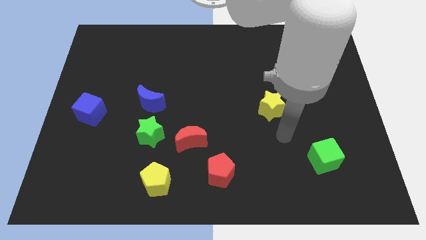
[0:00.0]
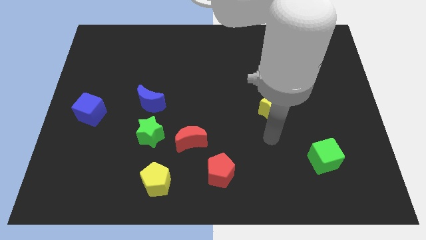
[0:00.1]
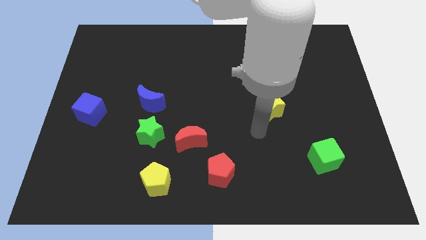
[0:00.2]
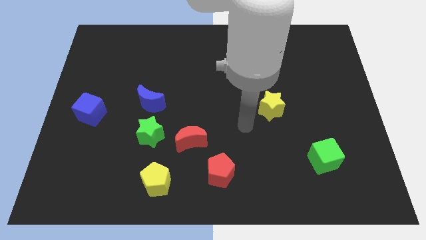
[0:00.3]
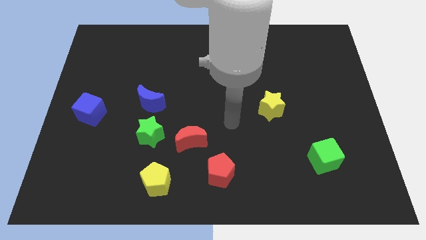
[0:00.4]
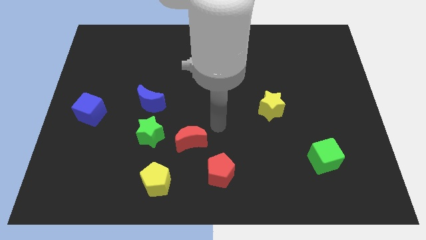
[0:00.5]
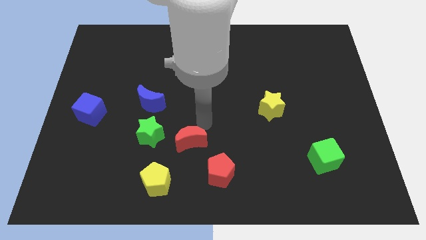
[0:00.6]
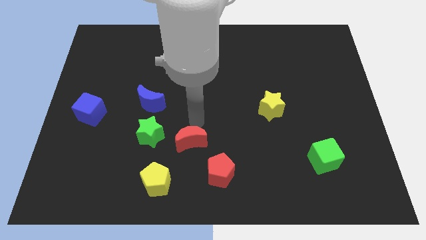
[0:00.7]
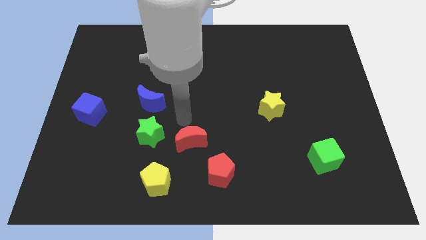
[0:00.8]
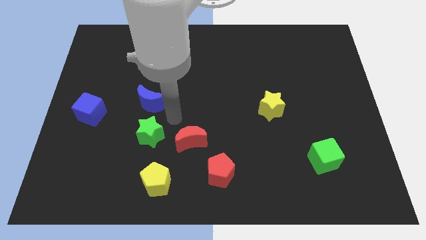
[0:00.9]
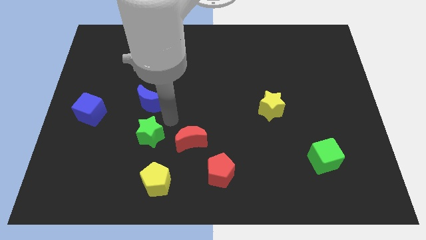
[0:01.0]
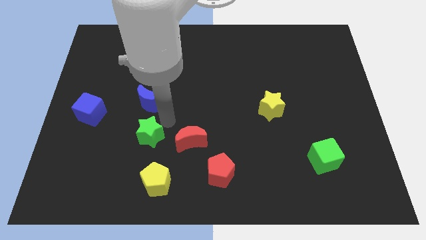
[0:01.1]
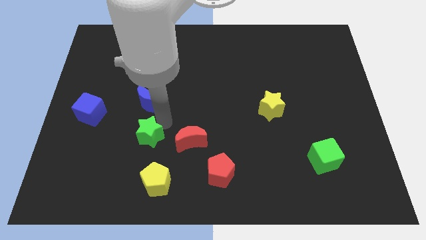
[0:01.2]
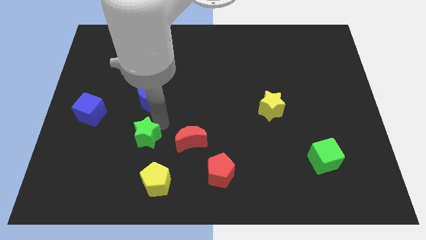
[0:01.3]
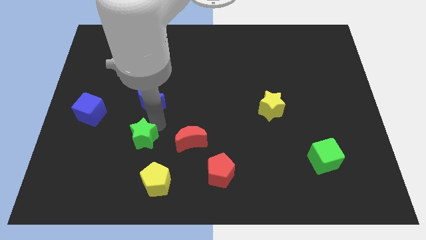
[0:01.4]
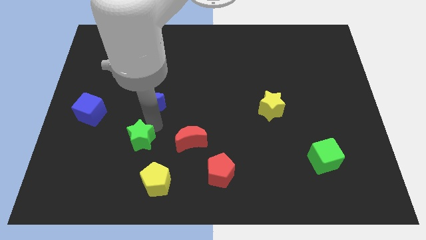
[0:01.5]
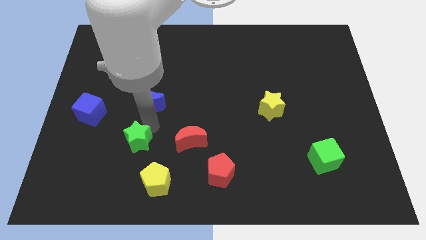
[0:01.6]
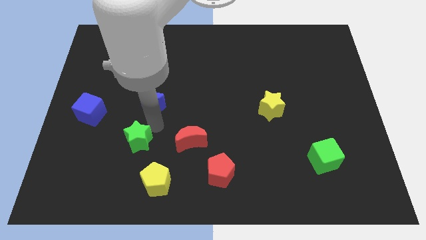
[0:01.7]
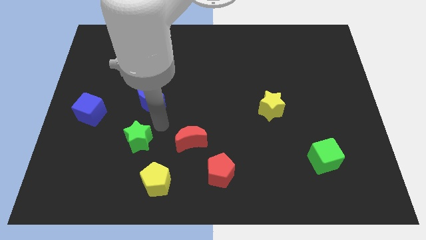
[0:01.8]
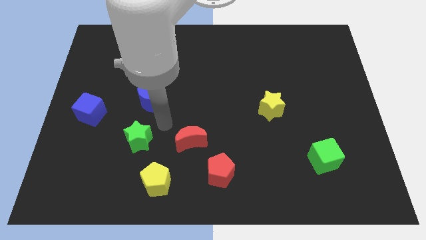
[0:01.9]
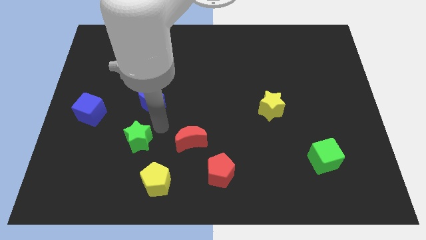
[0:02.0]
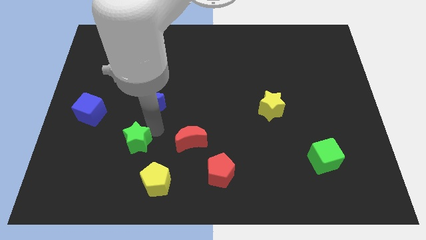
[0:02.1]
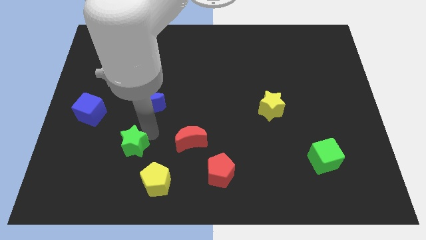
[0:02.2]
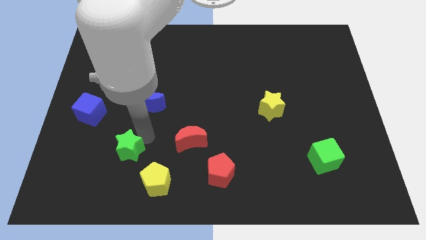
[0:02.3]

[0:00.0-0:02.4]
move the green star away from the red moon and blue moon

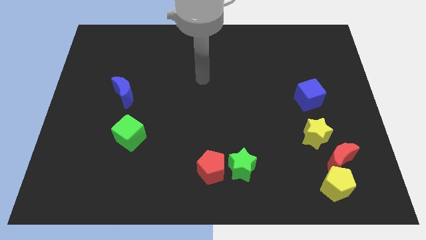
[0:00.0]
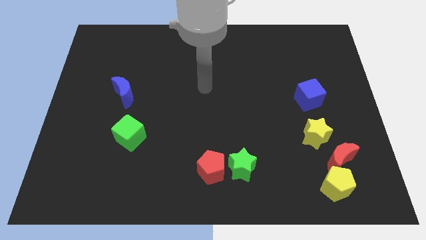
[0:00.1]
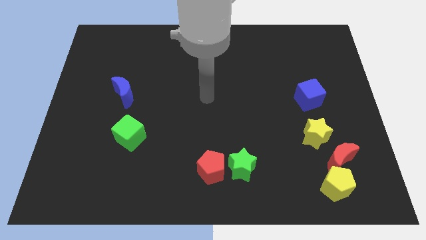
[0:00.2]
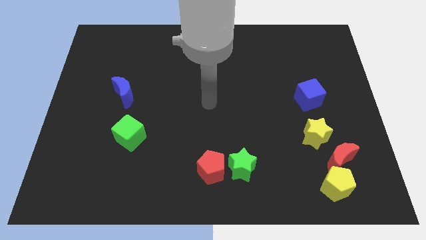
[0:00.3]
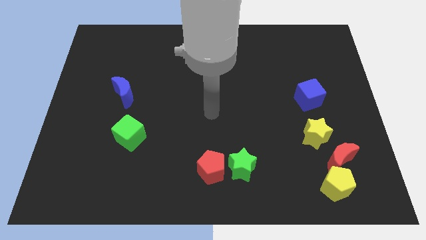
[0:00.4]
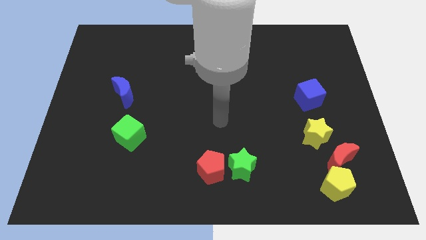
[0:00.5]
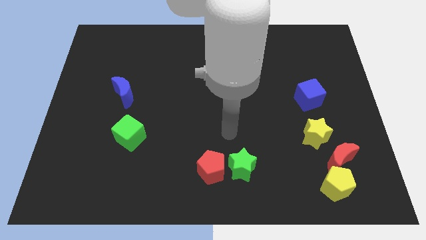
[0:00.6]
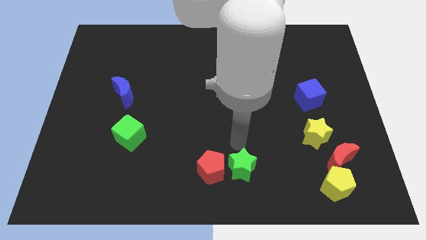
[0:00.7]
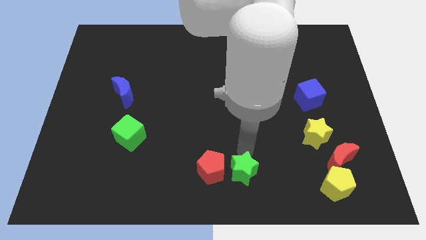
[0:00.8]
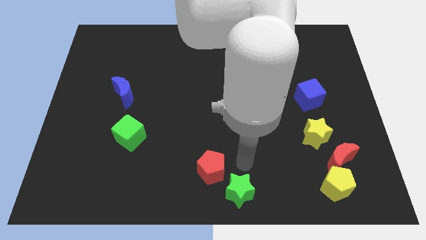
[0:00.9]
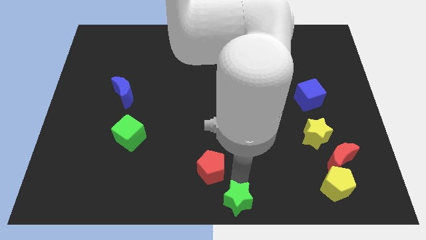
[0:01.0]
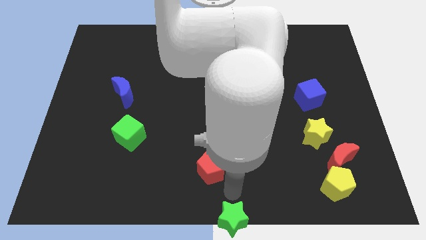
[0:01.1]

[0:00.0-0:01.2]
separate the red pentagon from the green star

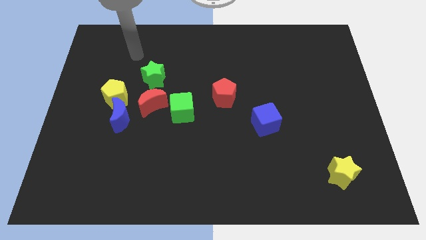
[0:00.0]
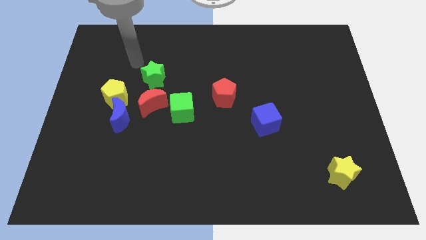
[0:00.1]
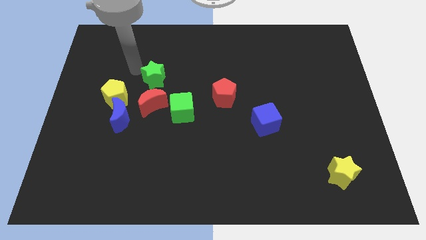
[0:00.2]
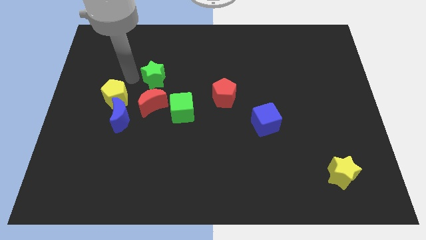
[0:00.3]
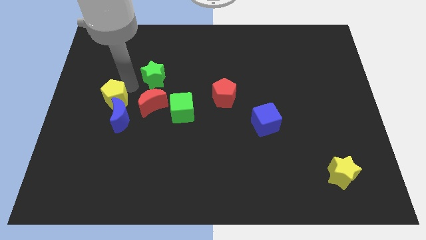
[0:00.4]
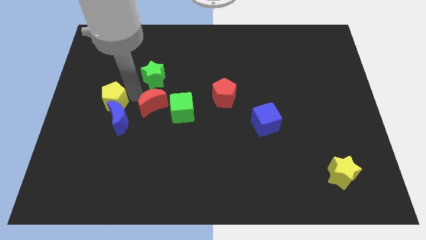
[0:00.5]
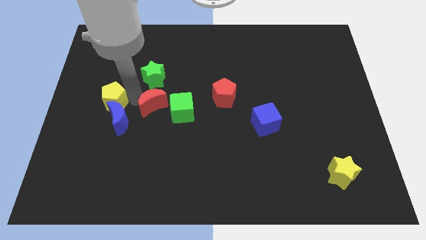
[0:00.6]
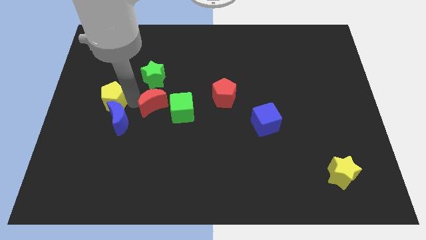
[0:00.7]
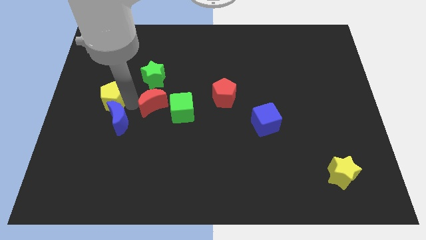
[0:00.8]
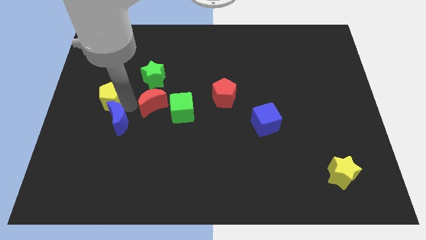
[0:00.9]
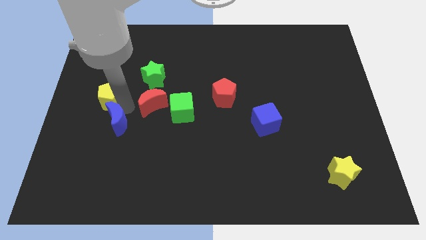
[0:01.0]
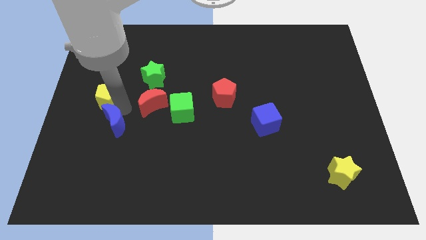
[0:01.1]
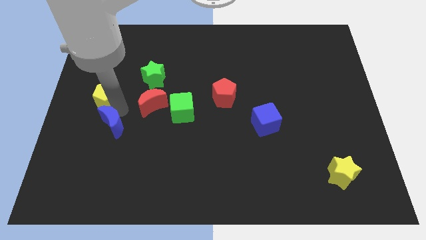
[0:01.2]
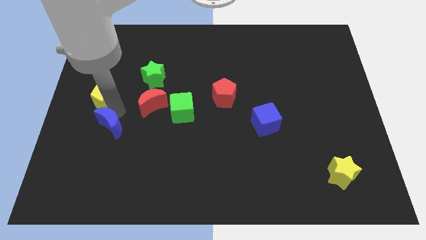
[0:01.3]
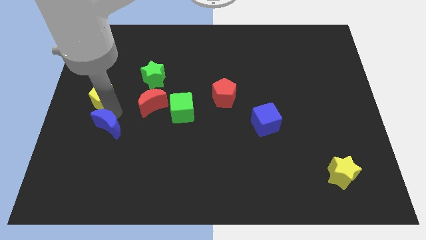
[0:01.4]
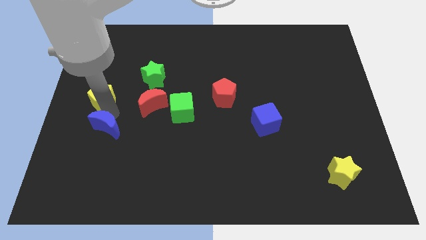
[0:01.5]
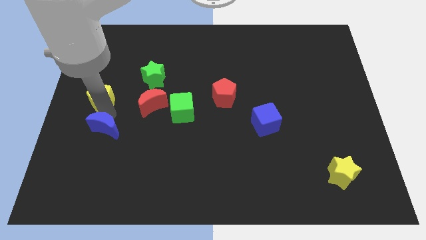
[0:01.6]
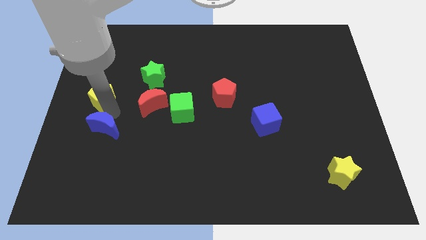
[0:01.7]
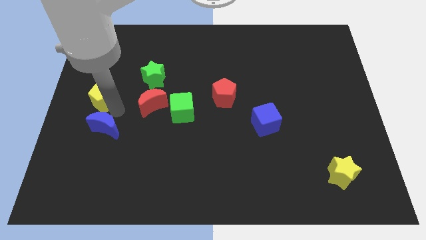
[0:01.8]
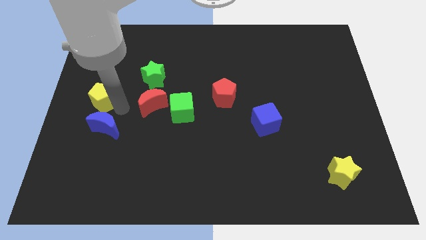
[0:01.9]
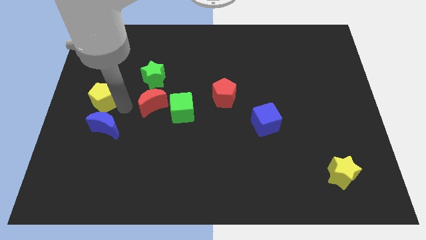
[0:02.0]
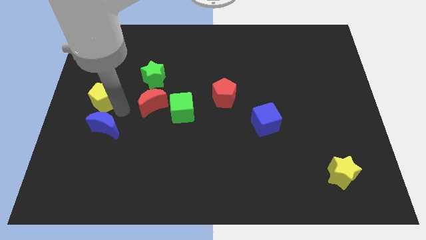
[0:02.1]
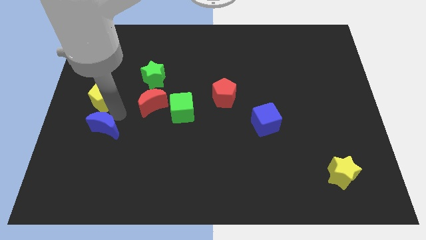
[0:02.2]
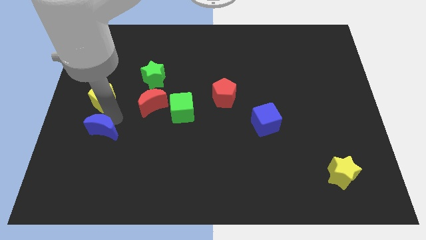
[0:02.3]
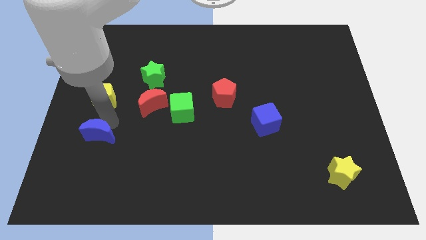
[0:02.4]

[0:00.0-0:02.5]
pull the blue moon apart from the yellow pentagon and red moon

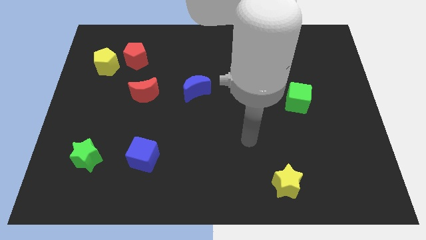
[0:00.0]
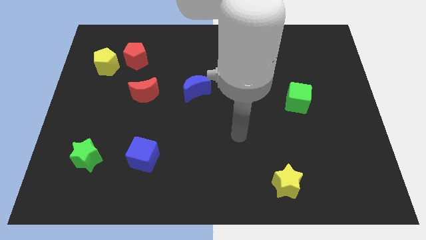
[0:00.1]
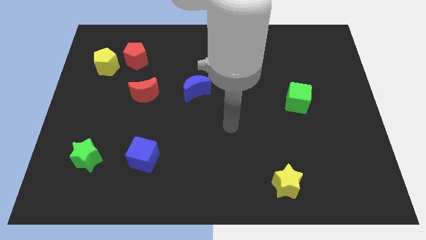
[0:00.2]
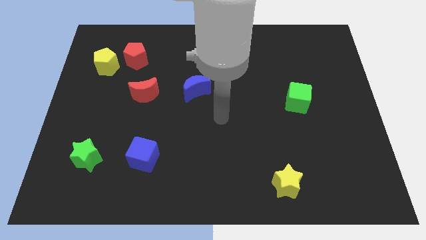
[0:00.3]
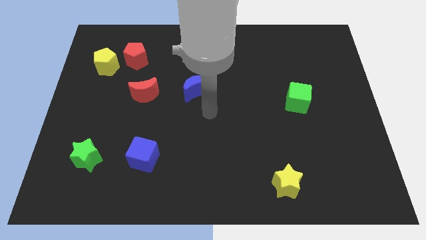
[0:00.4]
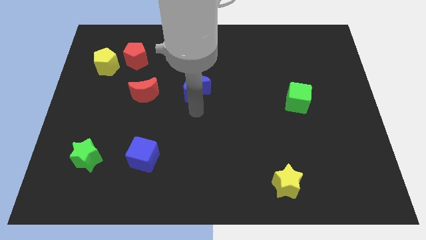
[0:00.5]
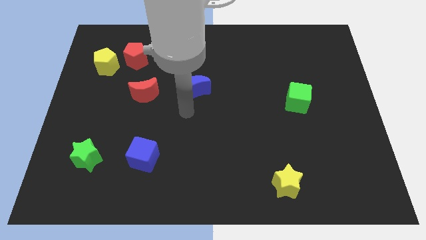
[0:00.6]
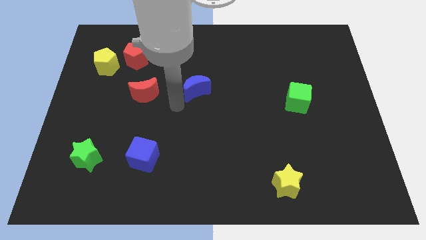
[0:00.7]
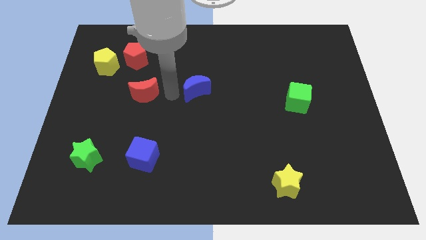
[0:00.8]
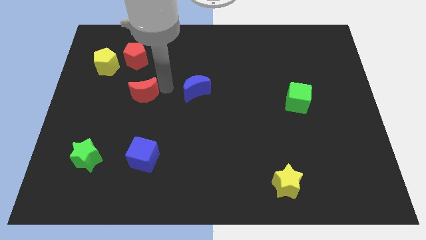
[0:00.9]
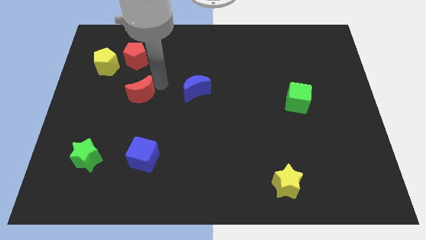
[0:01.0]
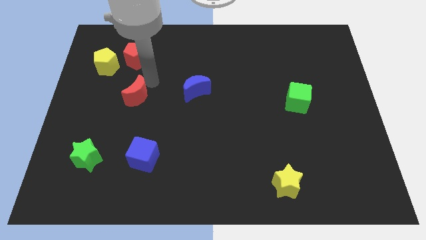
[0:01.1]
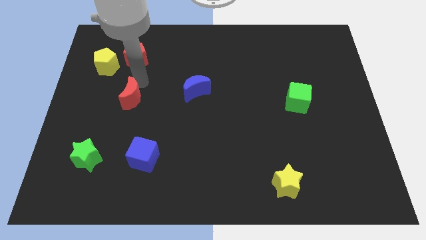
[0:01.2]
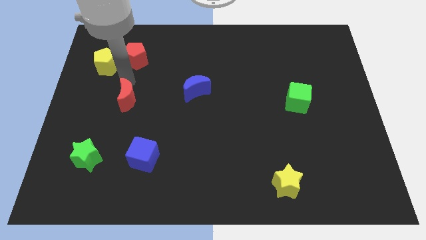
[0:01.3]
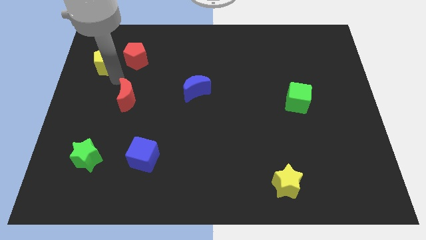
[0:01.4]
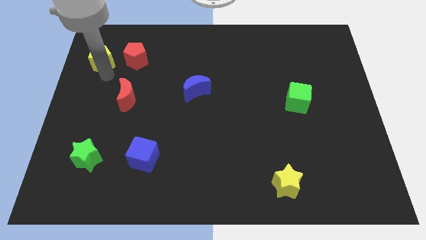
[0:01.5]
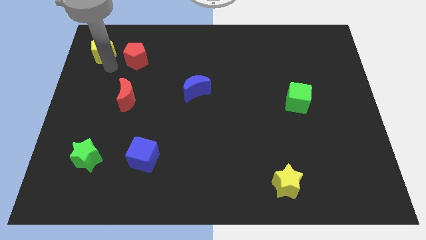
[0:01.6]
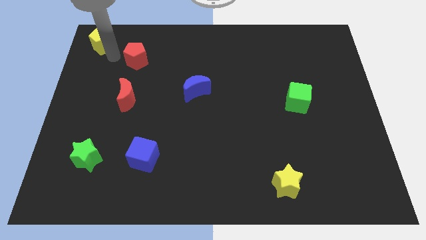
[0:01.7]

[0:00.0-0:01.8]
pull the red pentagon apart from the yellow pentagon

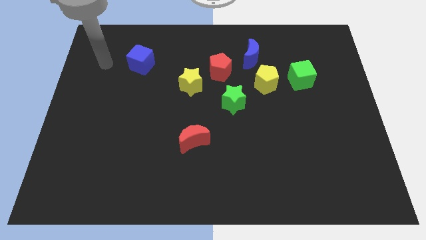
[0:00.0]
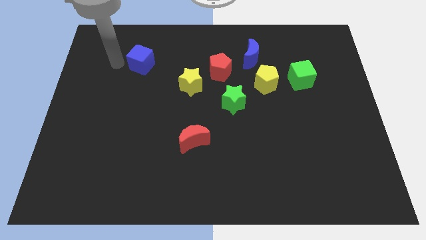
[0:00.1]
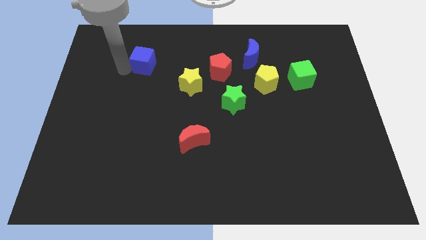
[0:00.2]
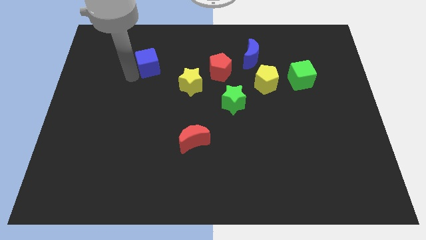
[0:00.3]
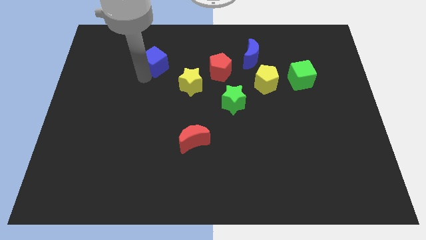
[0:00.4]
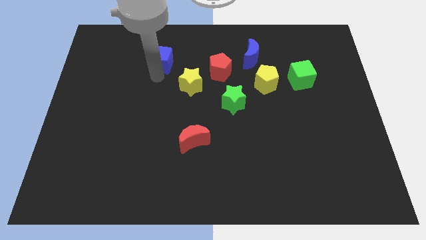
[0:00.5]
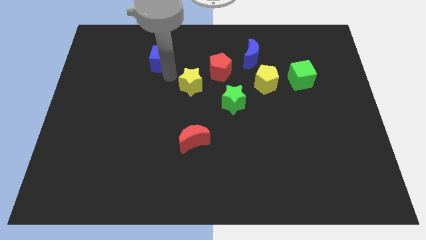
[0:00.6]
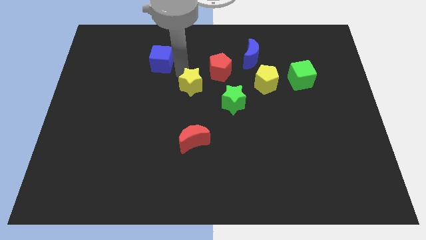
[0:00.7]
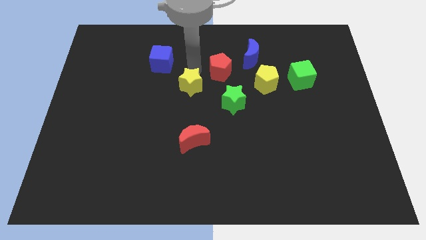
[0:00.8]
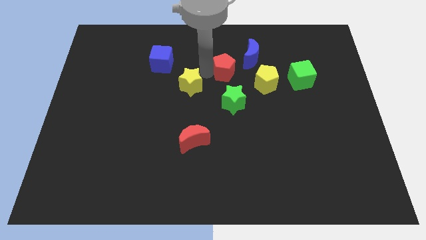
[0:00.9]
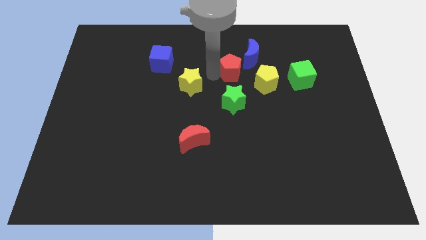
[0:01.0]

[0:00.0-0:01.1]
move the yellow star away from the red pentagon

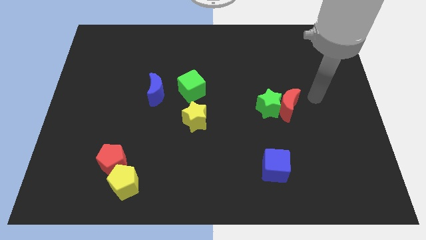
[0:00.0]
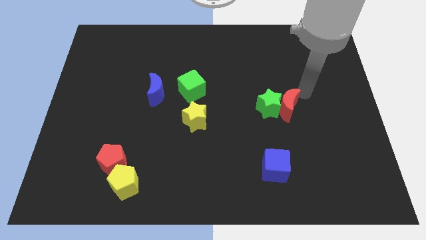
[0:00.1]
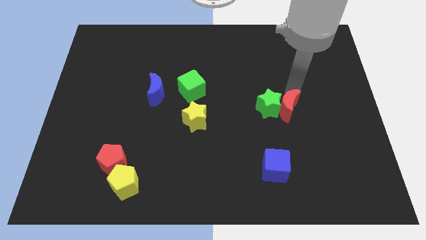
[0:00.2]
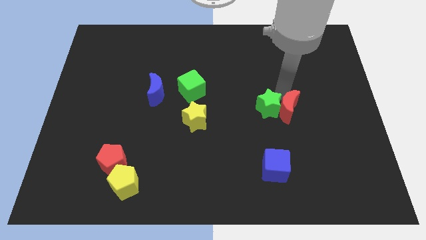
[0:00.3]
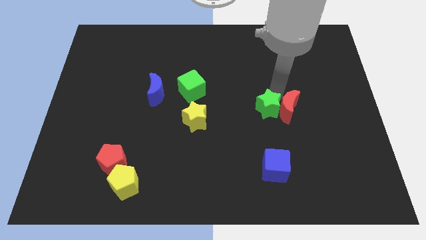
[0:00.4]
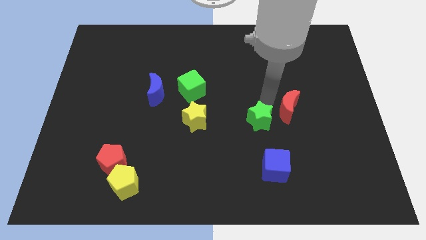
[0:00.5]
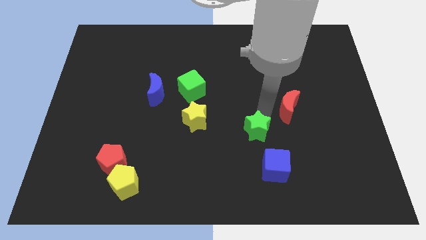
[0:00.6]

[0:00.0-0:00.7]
pull the red moon apart from the green star
